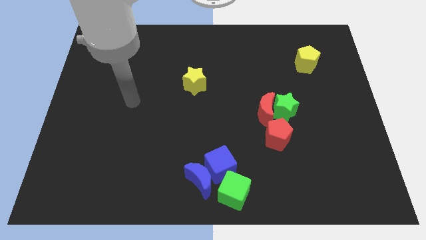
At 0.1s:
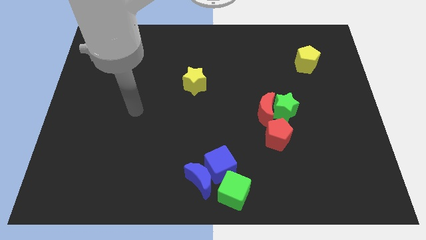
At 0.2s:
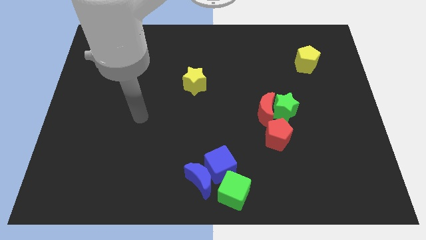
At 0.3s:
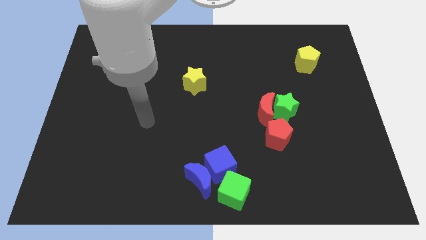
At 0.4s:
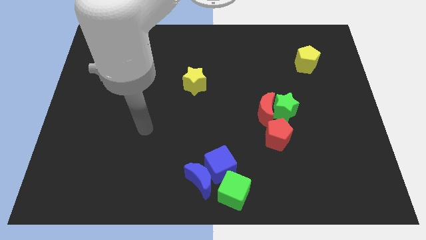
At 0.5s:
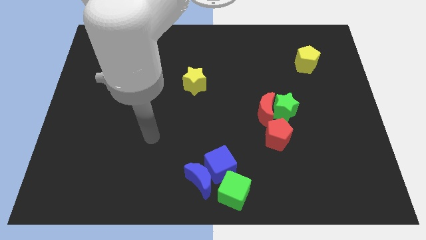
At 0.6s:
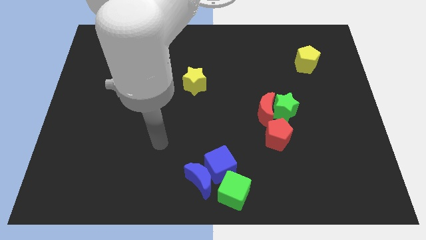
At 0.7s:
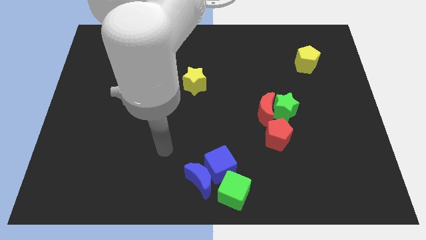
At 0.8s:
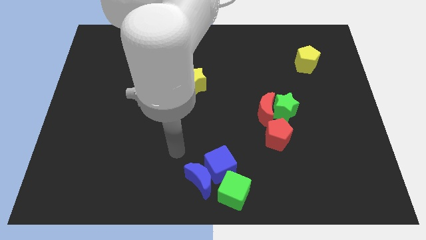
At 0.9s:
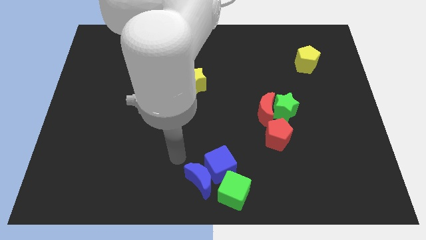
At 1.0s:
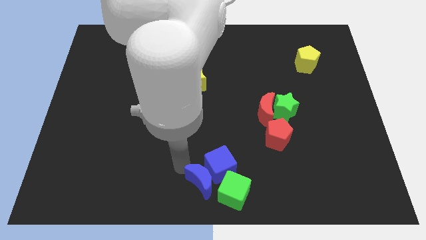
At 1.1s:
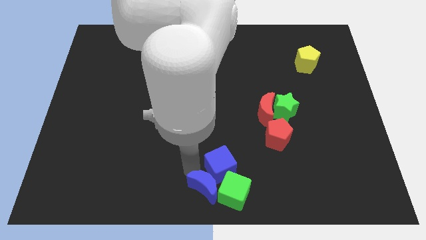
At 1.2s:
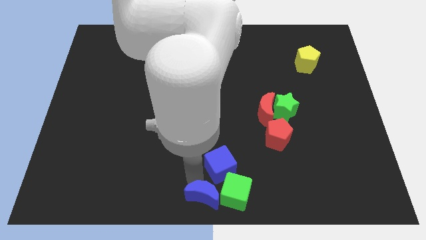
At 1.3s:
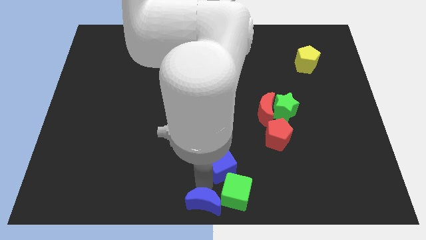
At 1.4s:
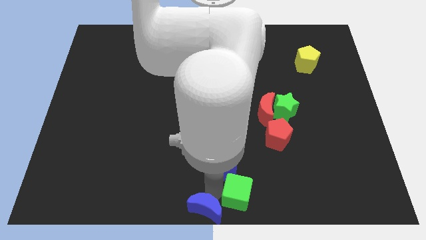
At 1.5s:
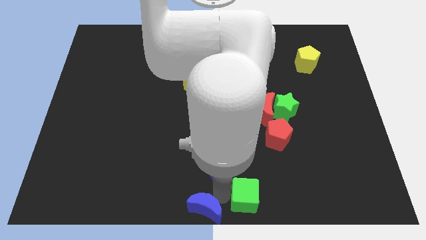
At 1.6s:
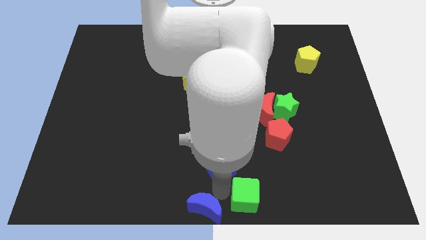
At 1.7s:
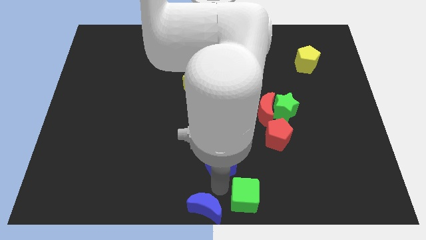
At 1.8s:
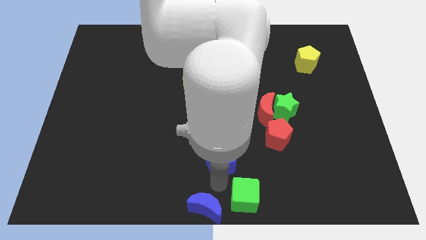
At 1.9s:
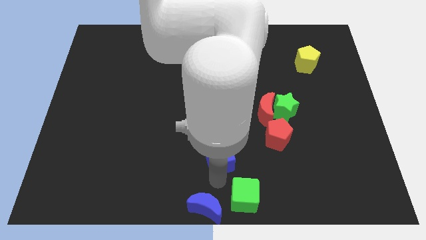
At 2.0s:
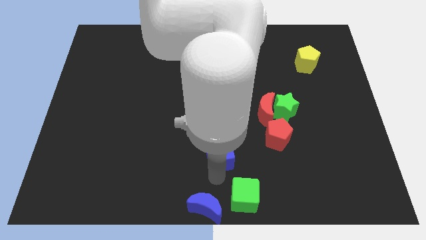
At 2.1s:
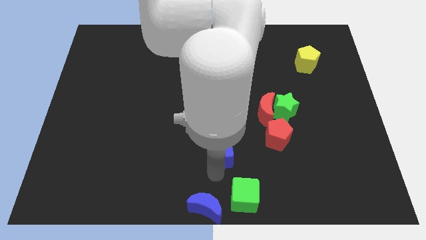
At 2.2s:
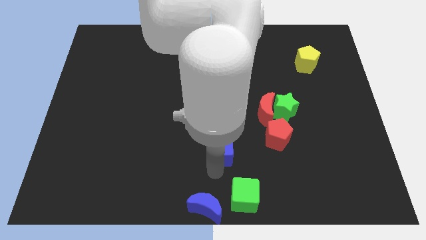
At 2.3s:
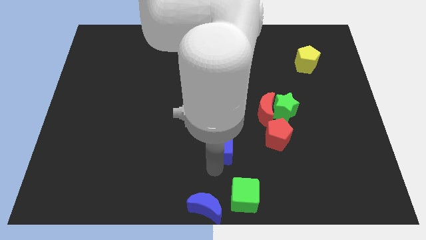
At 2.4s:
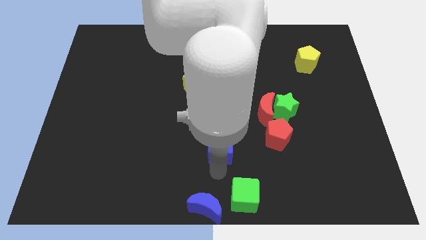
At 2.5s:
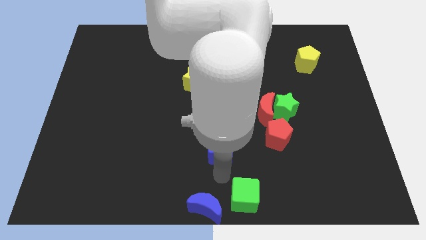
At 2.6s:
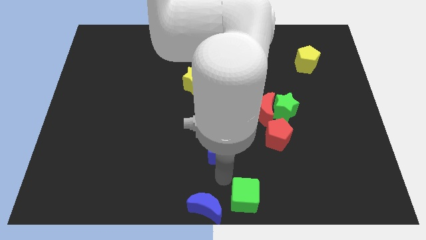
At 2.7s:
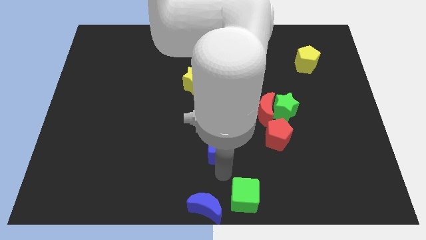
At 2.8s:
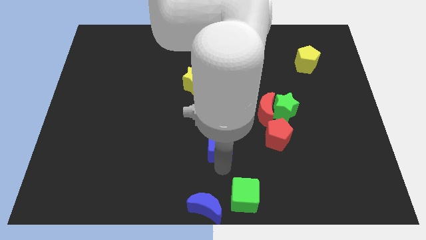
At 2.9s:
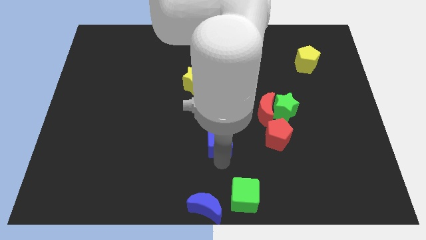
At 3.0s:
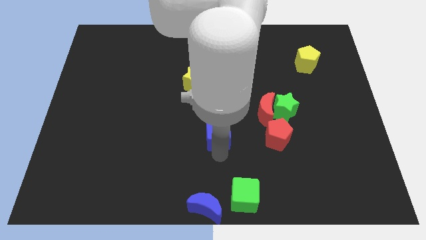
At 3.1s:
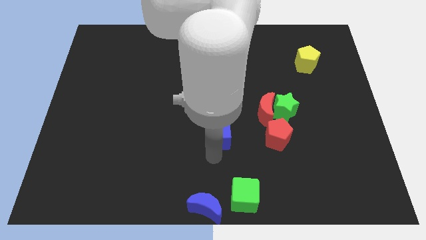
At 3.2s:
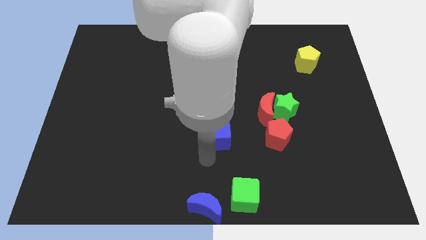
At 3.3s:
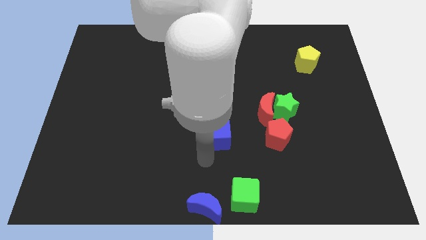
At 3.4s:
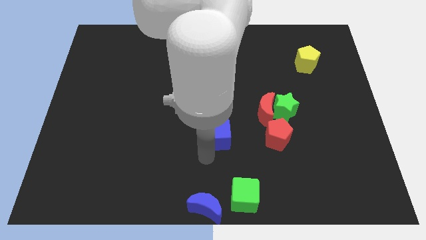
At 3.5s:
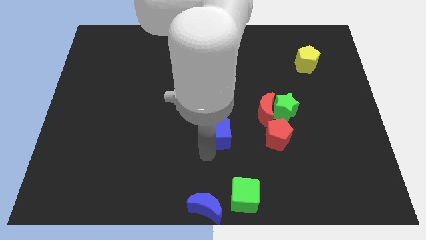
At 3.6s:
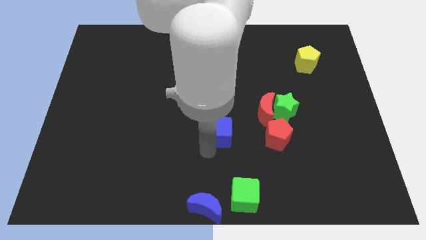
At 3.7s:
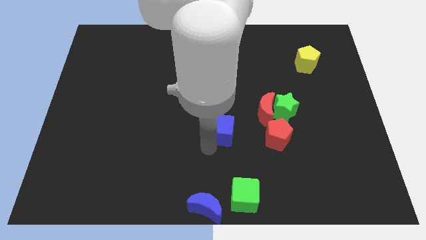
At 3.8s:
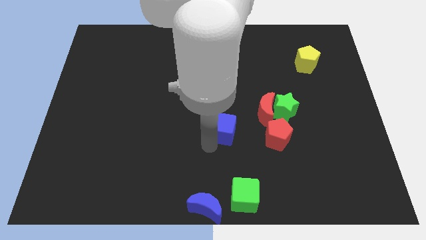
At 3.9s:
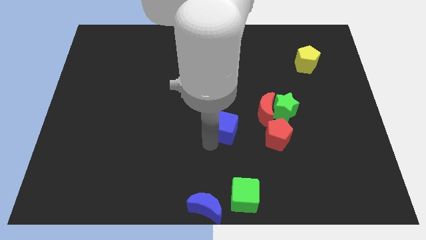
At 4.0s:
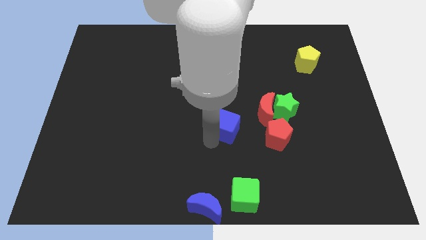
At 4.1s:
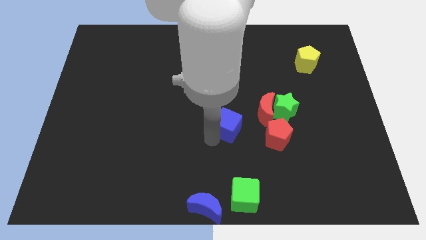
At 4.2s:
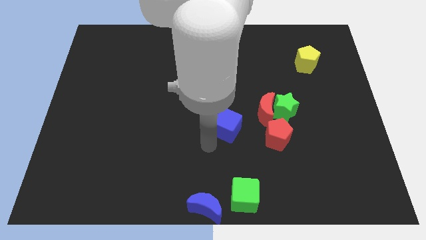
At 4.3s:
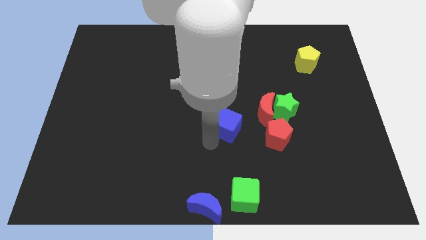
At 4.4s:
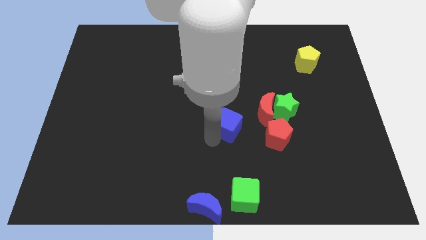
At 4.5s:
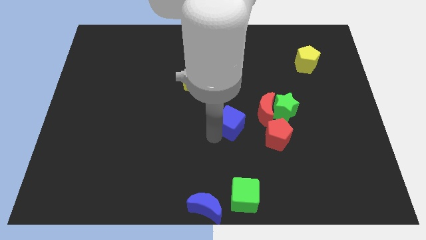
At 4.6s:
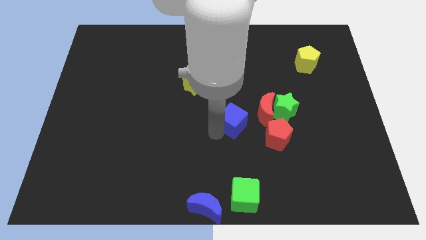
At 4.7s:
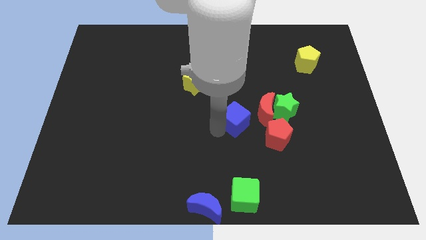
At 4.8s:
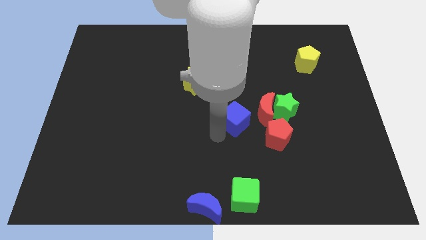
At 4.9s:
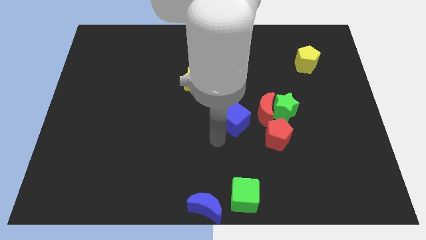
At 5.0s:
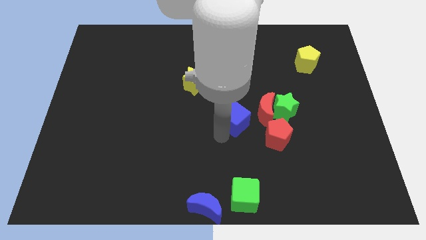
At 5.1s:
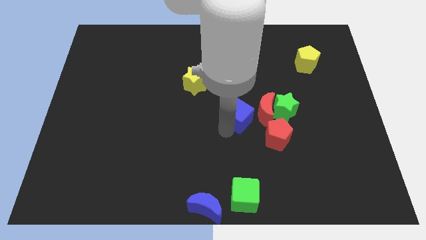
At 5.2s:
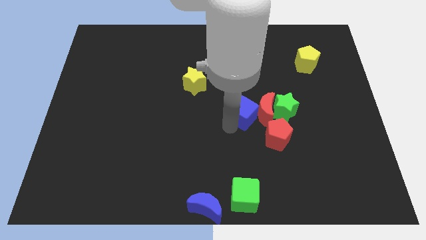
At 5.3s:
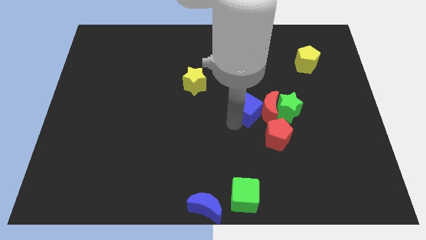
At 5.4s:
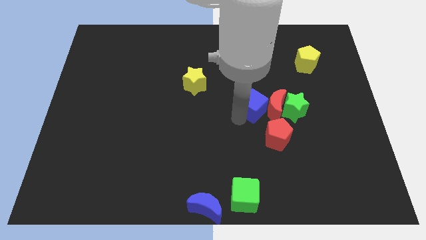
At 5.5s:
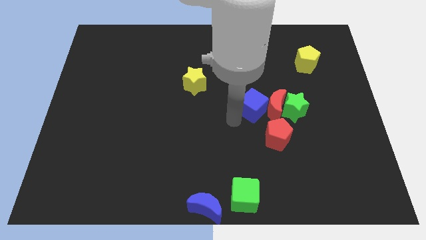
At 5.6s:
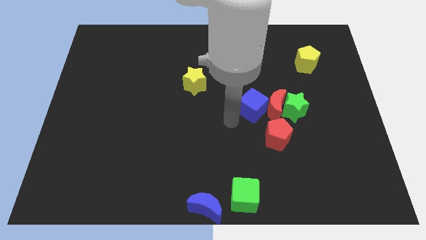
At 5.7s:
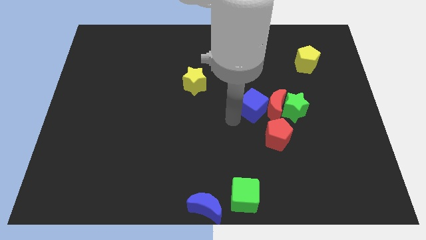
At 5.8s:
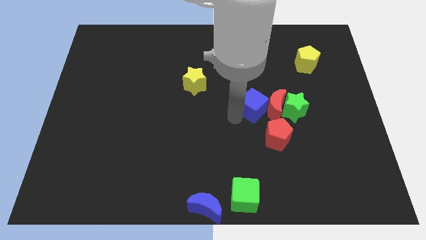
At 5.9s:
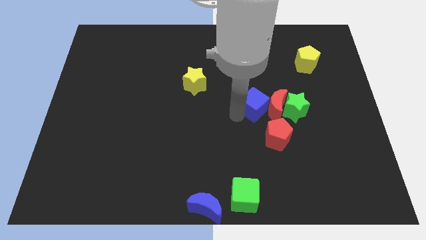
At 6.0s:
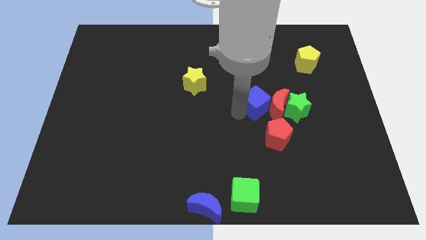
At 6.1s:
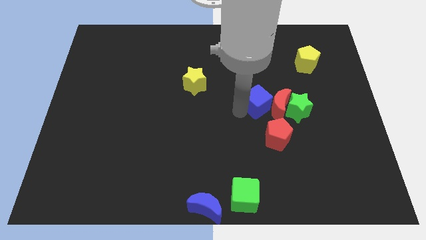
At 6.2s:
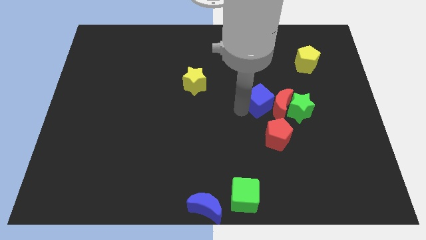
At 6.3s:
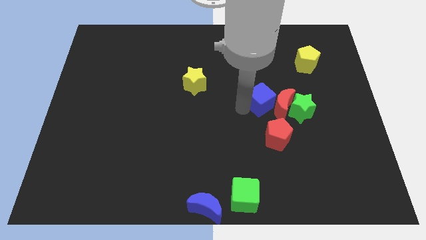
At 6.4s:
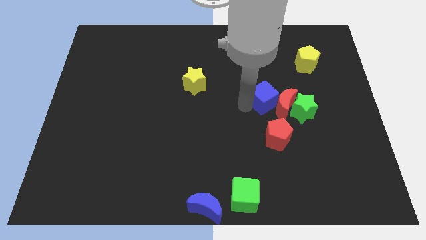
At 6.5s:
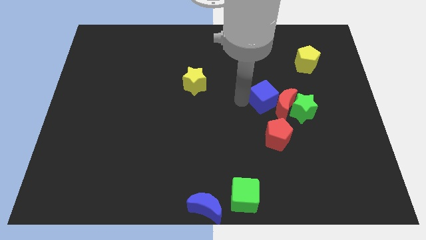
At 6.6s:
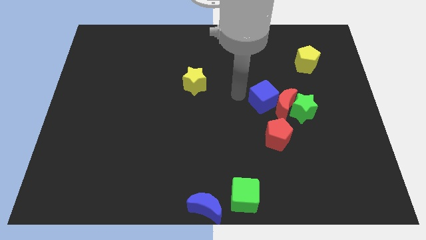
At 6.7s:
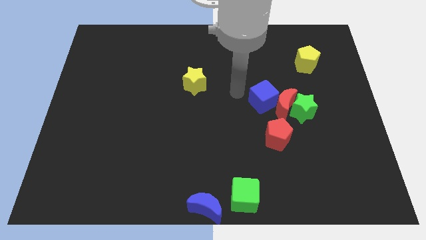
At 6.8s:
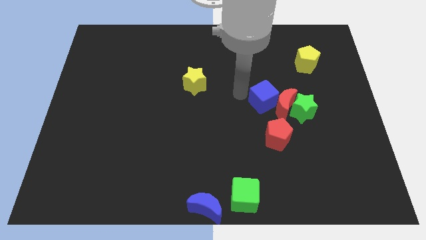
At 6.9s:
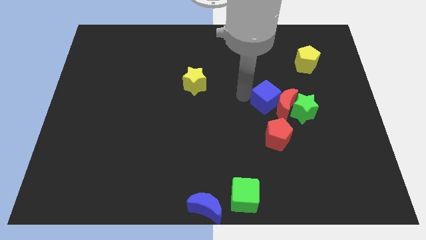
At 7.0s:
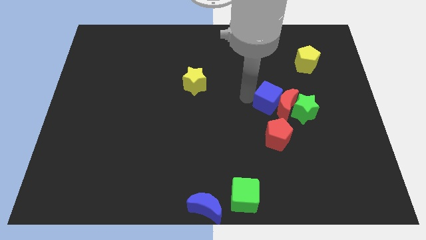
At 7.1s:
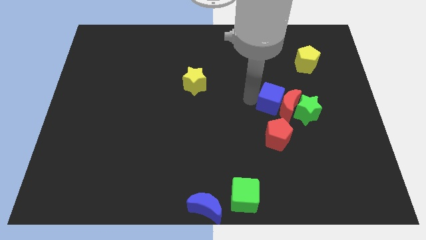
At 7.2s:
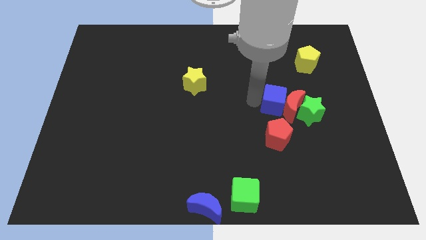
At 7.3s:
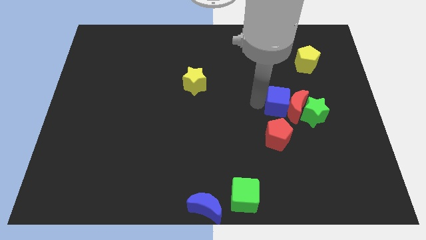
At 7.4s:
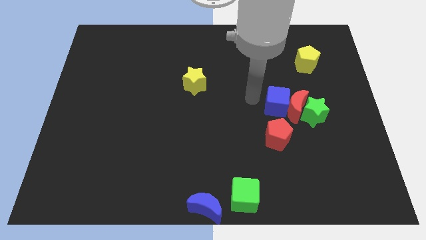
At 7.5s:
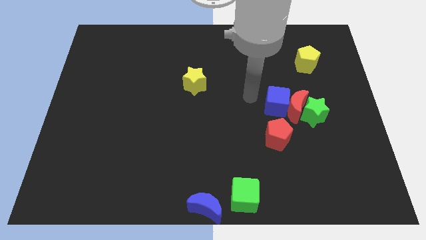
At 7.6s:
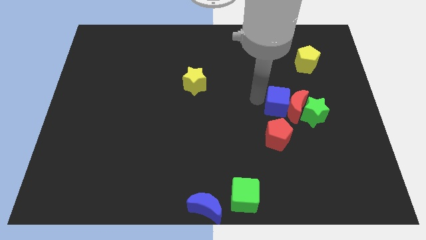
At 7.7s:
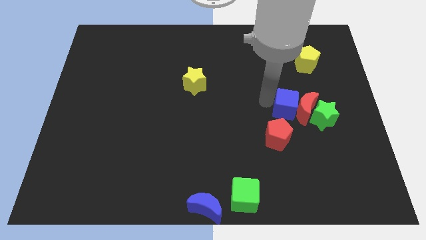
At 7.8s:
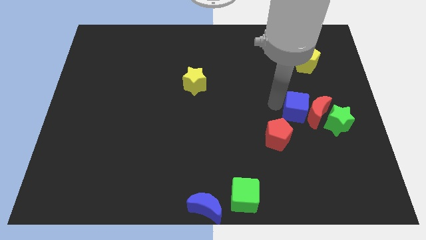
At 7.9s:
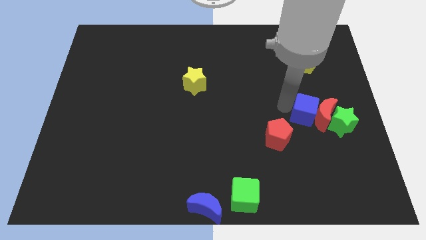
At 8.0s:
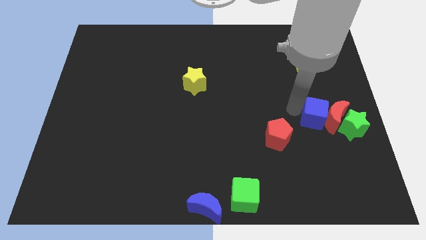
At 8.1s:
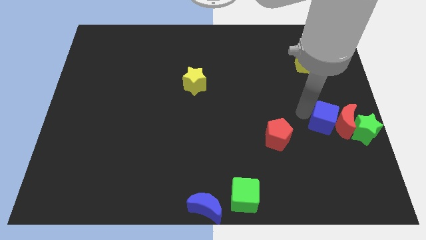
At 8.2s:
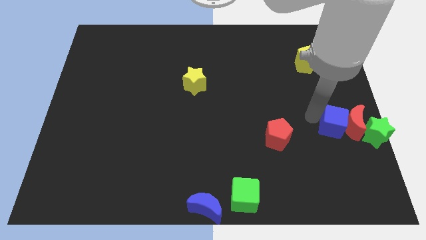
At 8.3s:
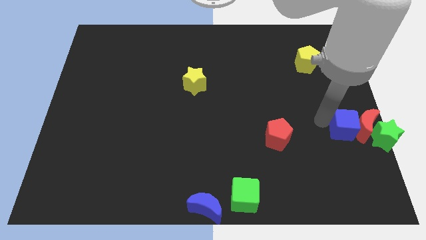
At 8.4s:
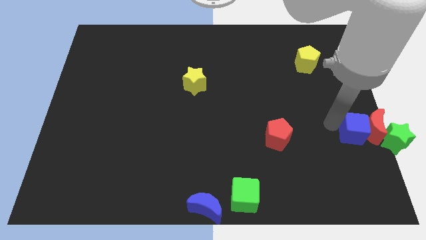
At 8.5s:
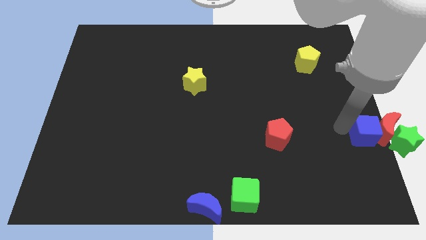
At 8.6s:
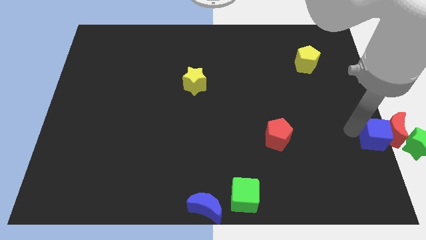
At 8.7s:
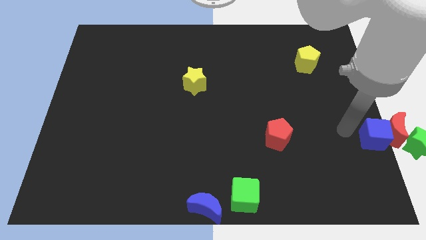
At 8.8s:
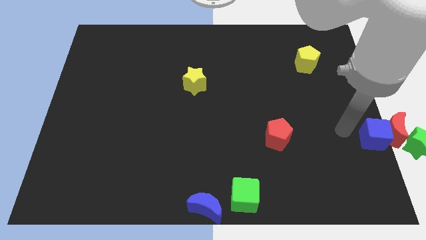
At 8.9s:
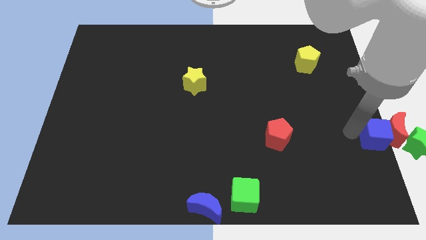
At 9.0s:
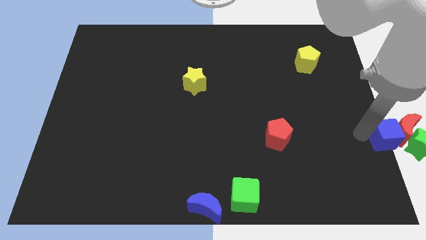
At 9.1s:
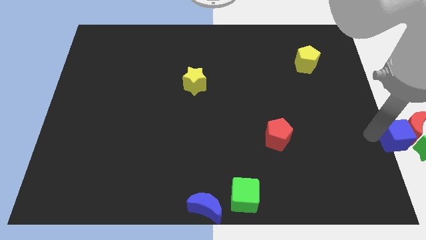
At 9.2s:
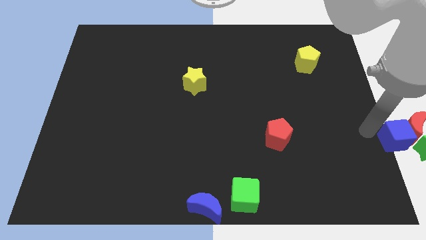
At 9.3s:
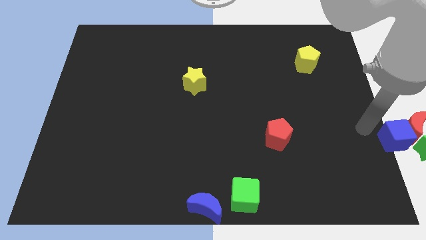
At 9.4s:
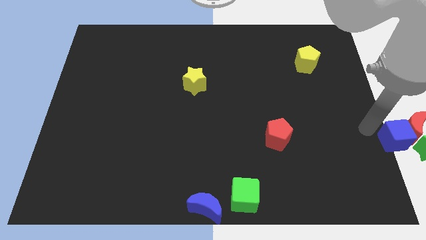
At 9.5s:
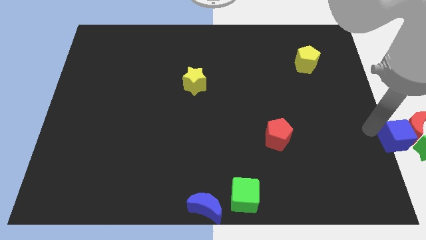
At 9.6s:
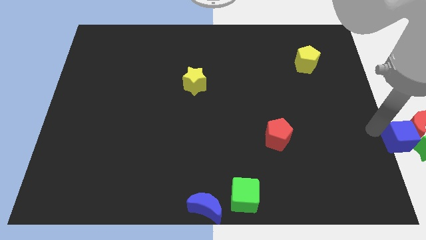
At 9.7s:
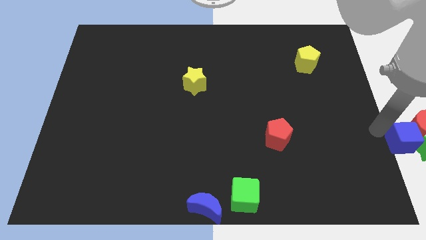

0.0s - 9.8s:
push the blue cube towards the green star
